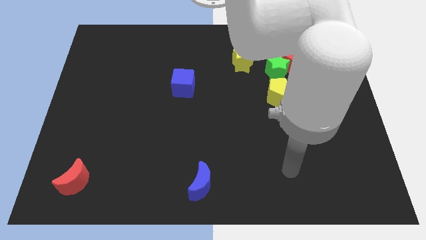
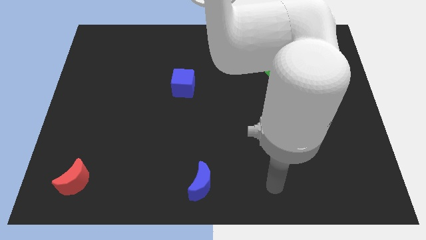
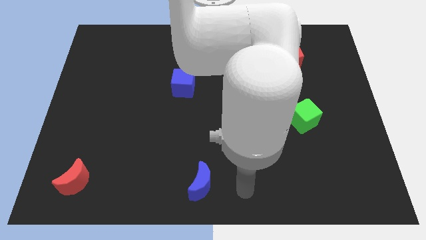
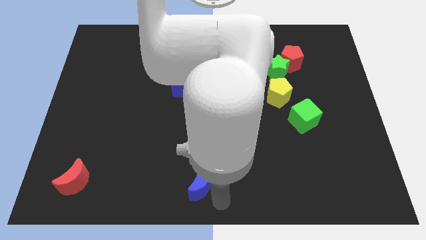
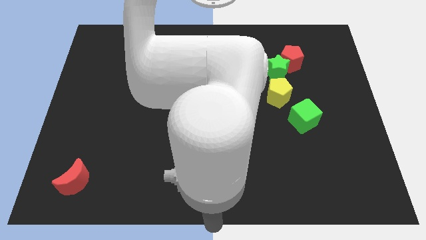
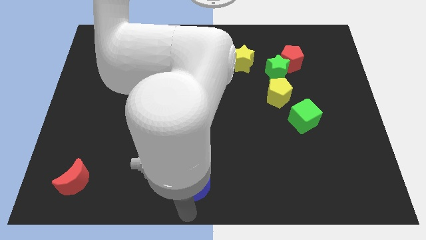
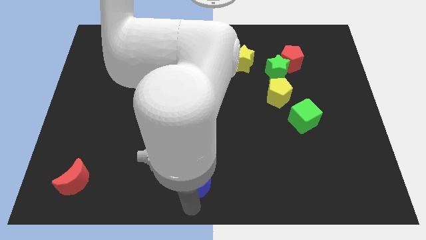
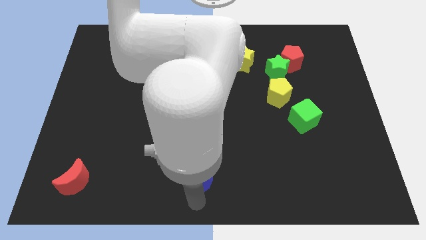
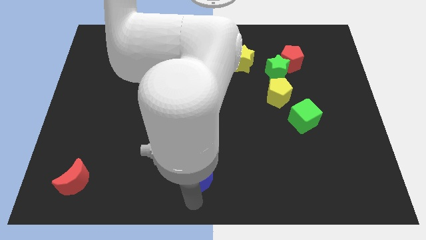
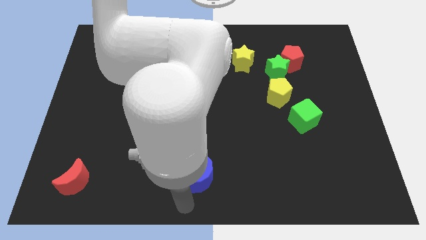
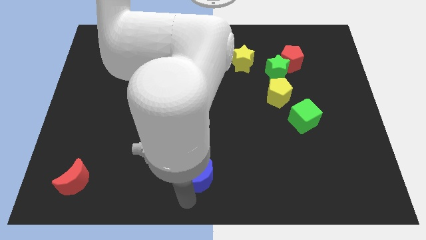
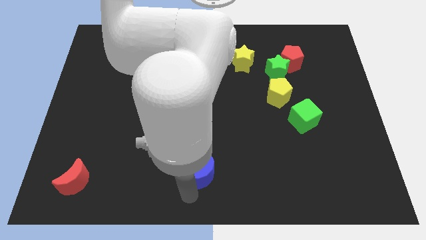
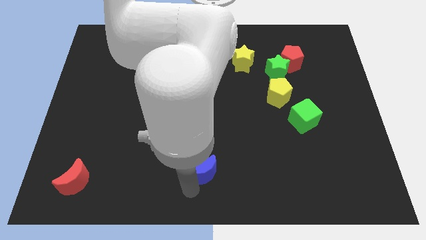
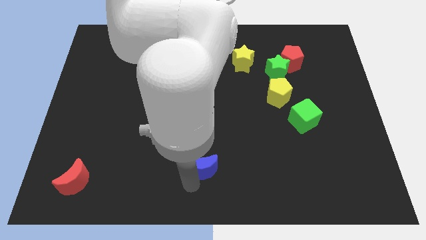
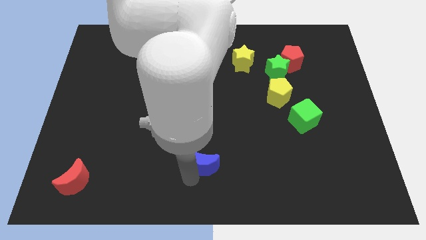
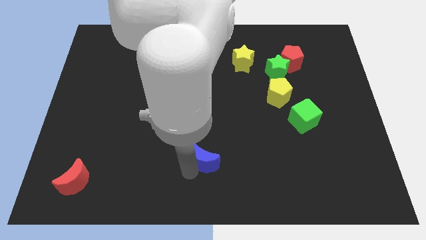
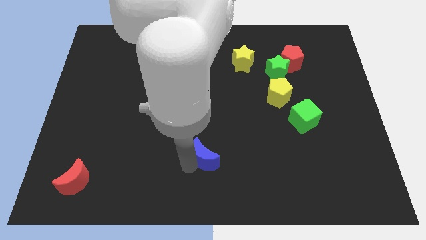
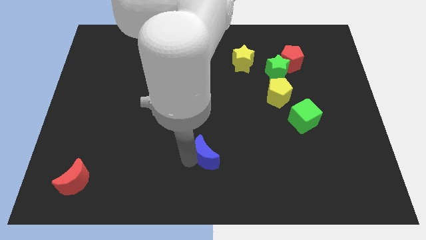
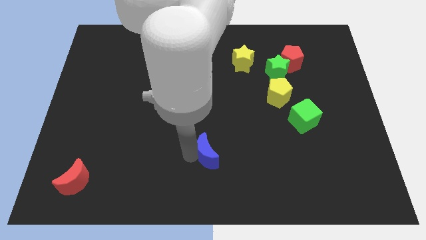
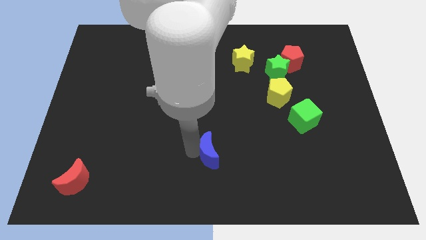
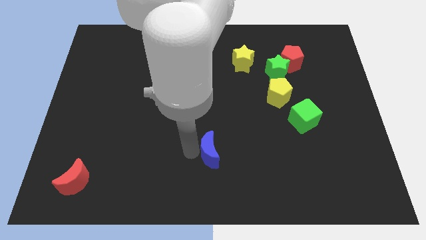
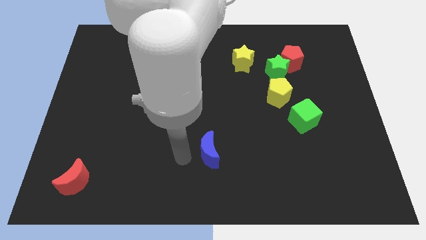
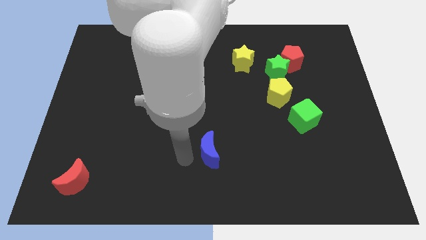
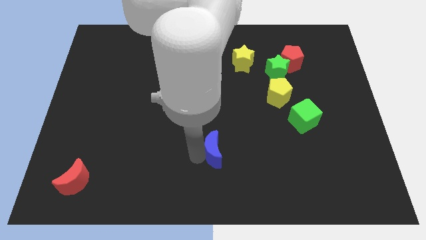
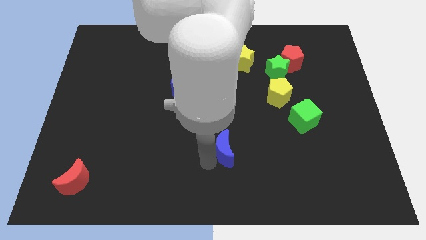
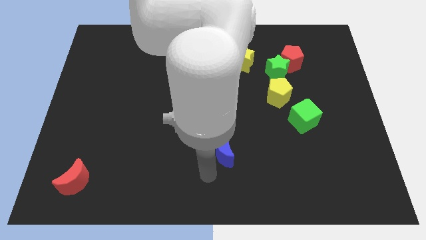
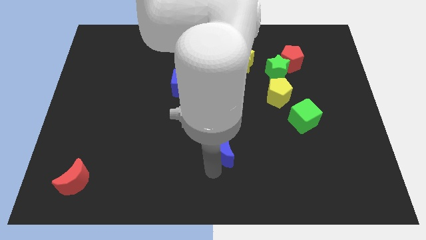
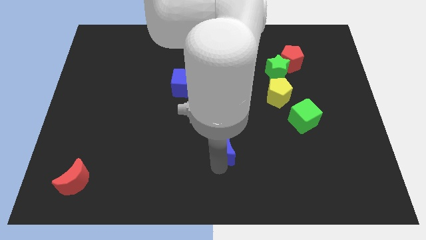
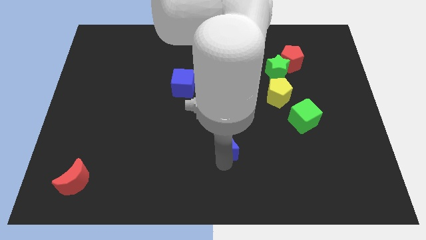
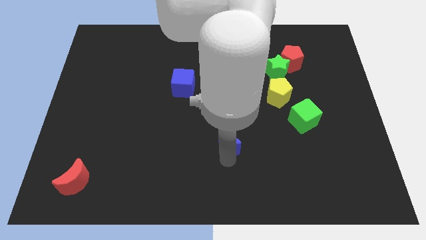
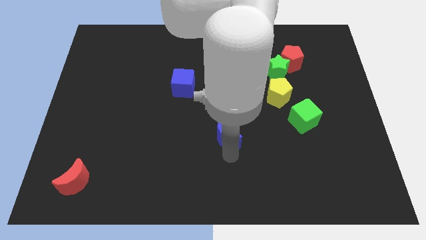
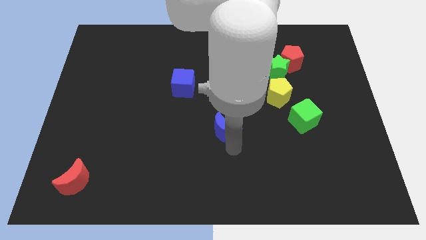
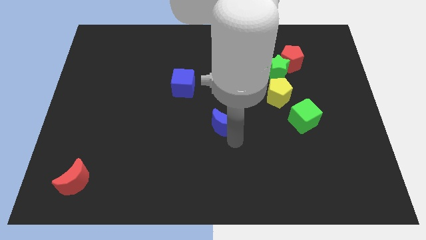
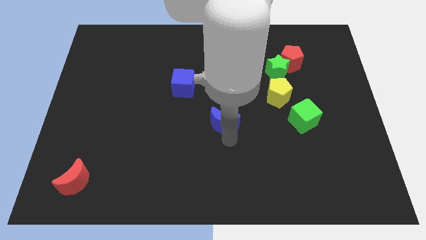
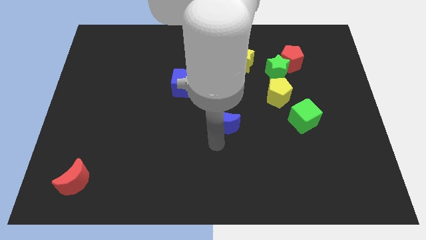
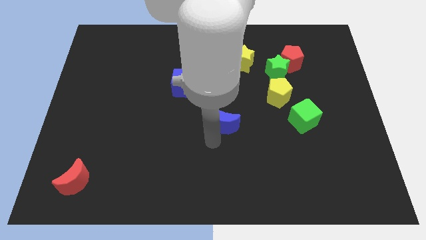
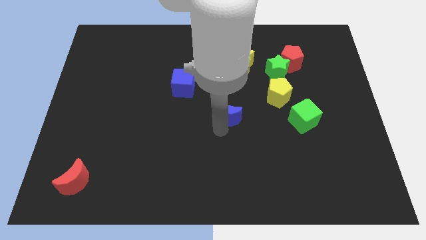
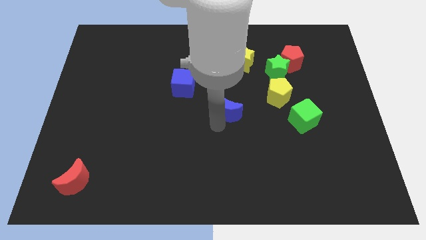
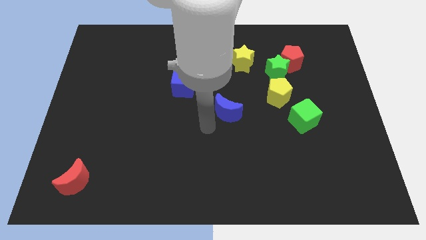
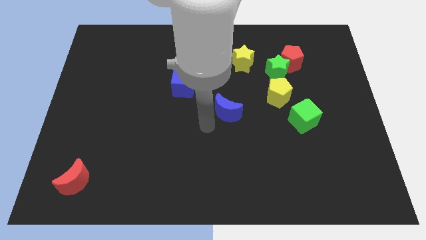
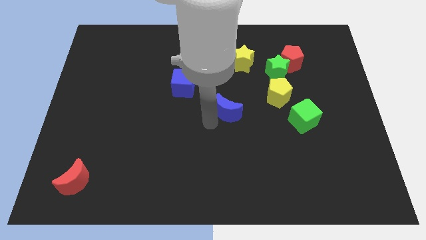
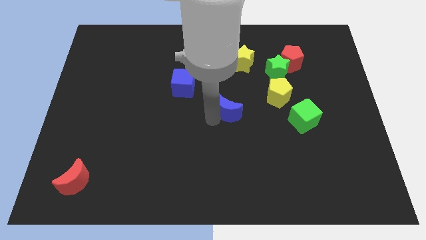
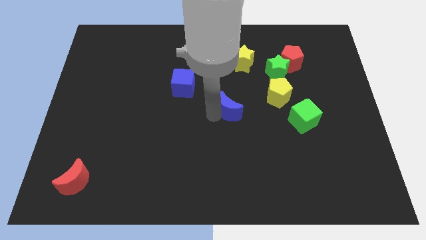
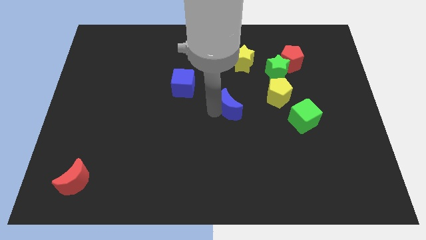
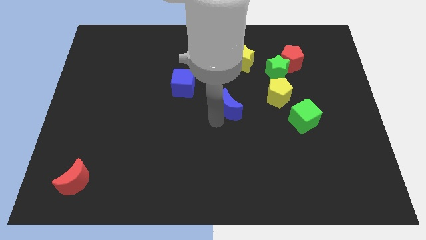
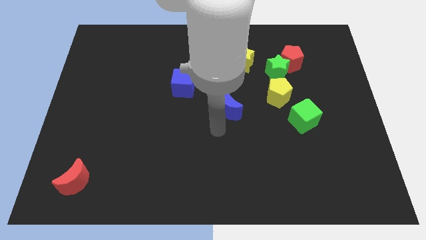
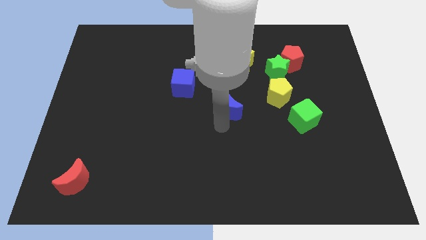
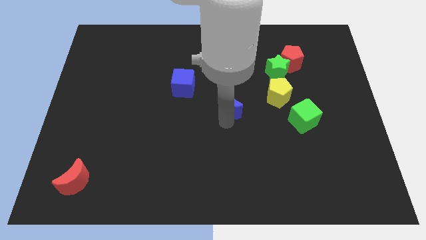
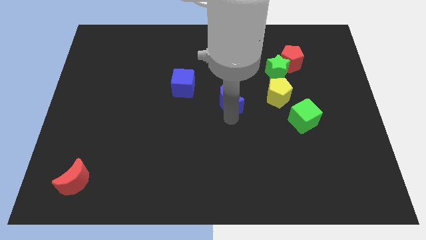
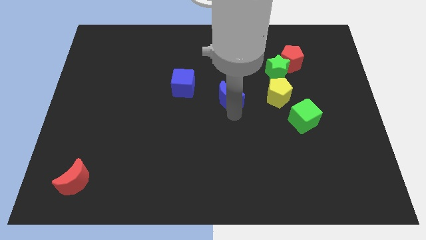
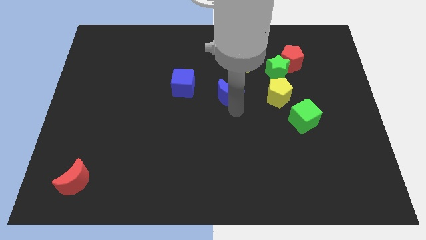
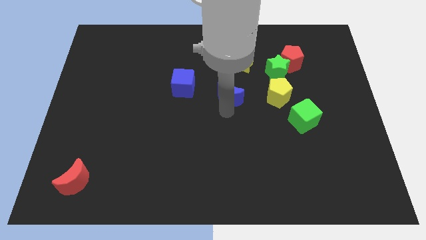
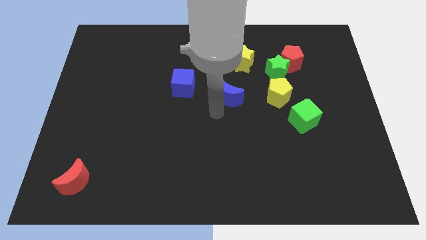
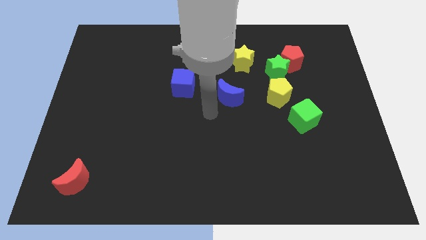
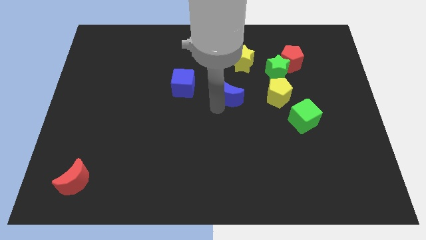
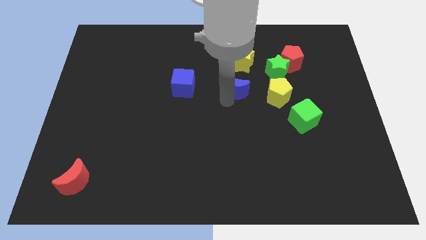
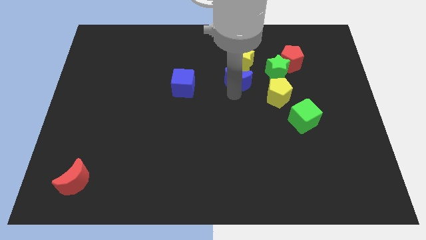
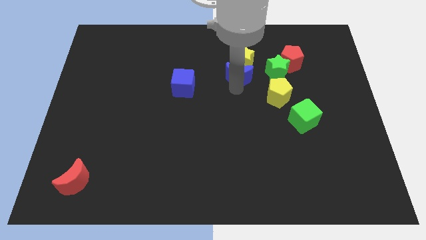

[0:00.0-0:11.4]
put the blue moon next to the yellow star

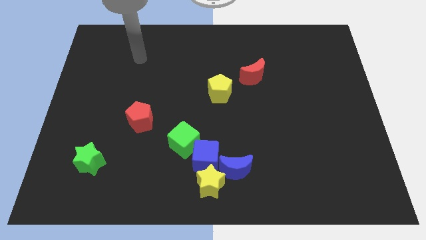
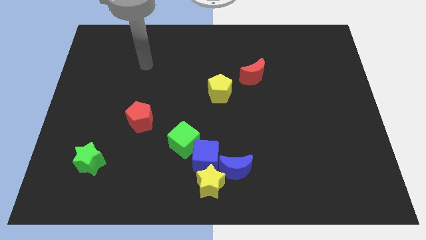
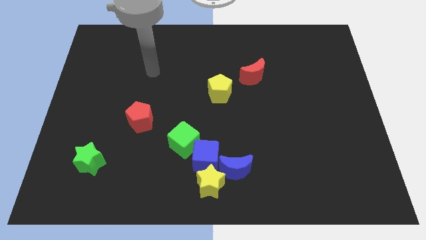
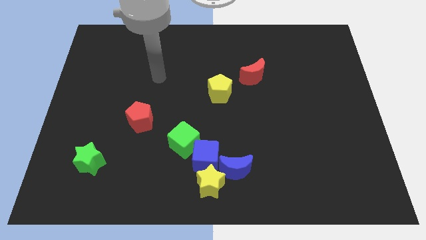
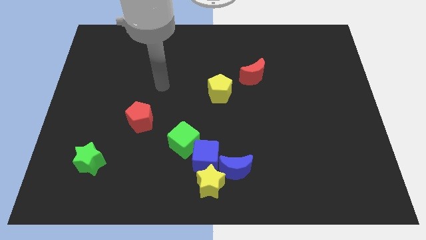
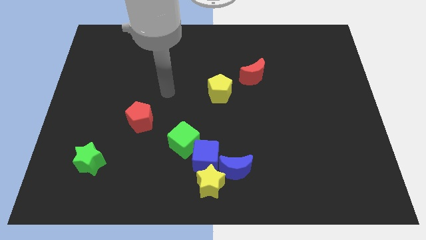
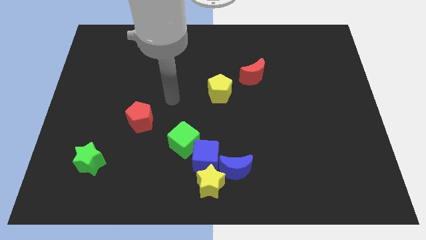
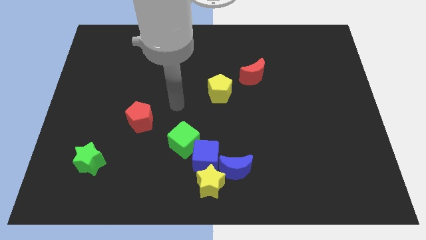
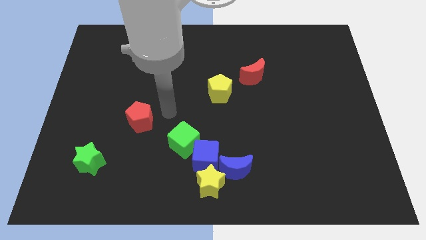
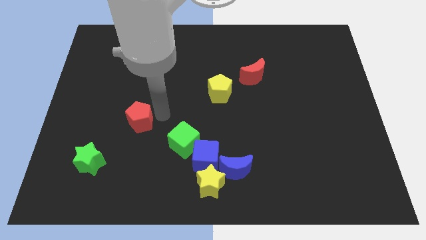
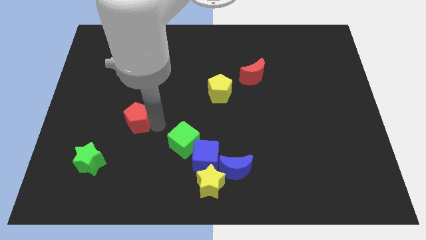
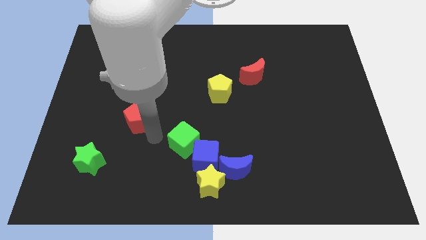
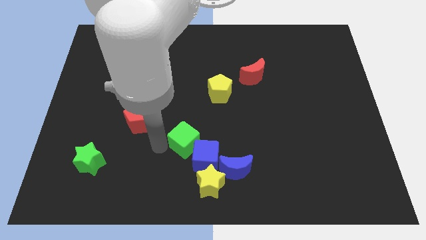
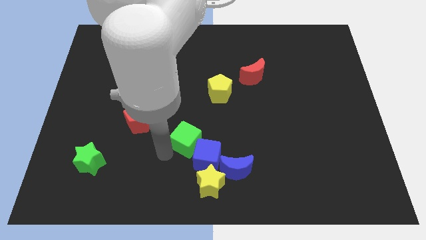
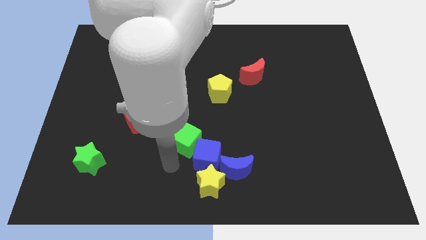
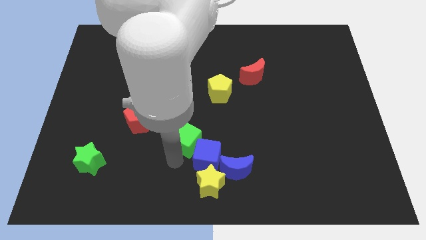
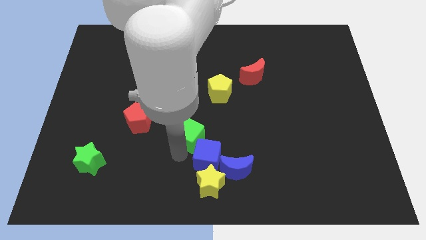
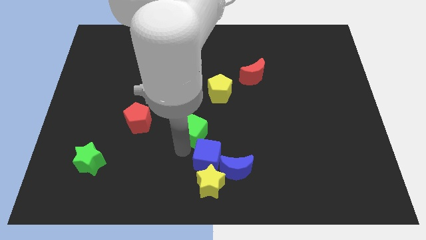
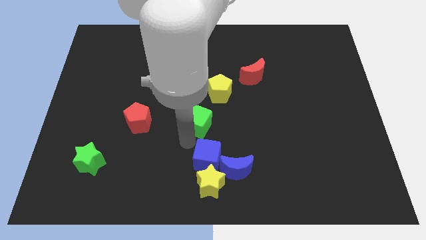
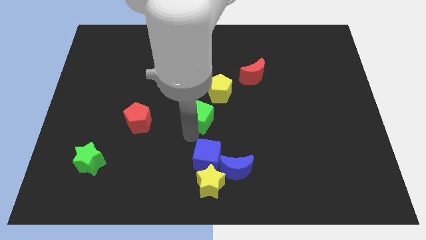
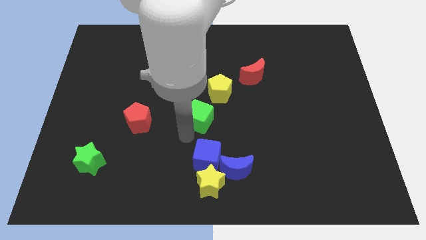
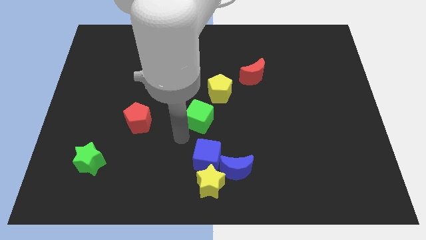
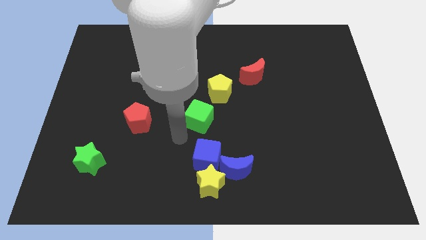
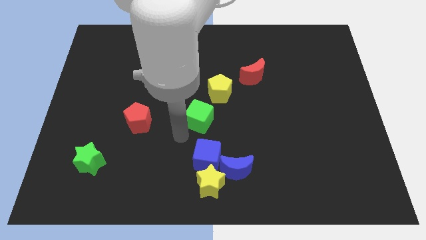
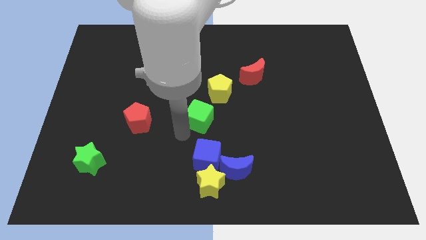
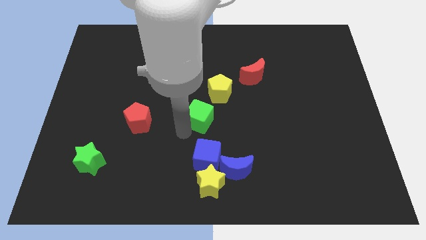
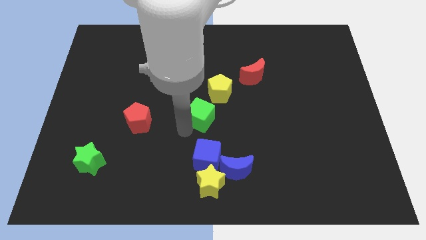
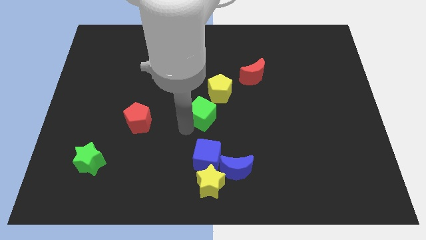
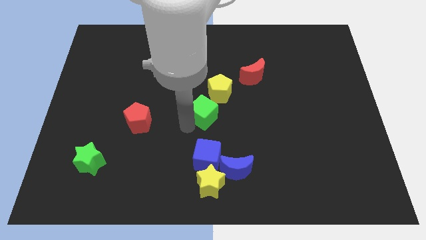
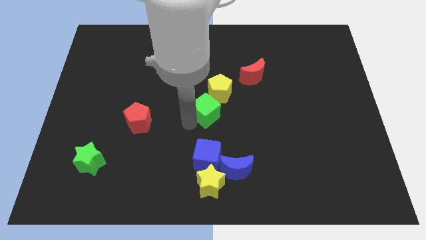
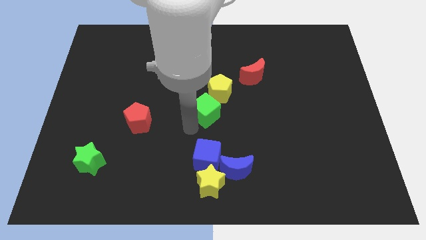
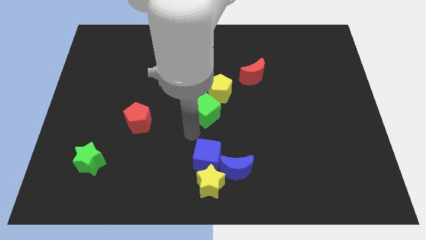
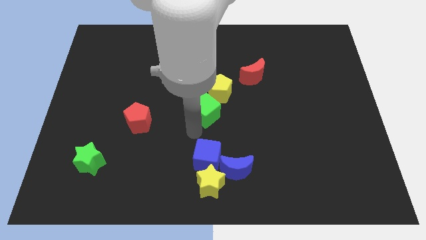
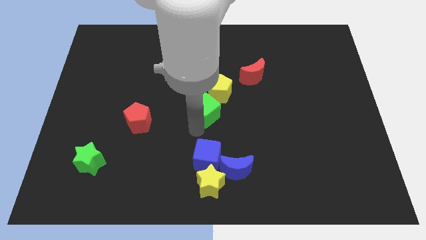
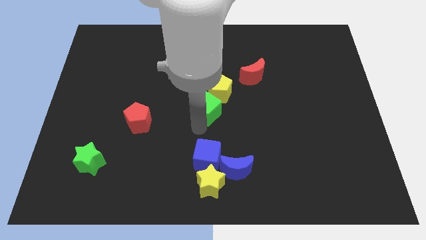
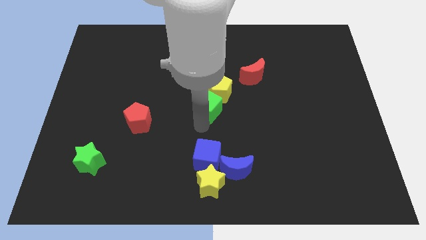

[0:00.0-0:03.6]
put the green cube next to the yellow pentagon
